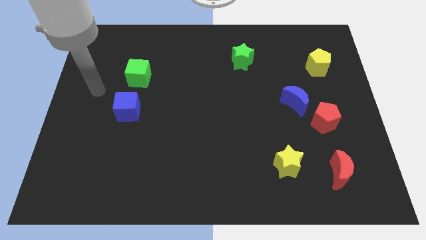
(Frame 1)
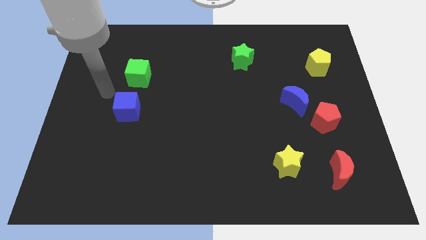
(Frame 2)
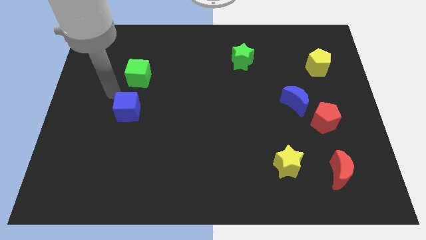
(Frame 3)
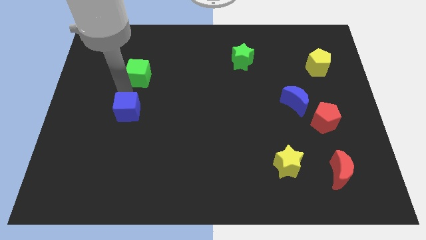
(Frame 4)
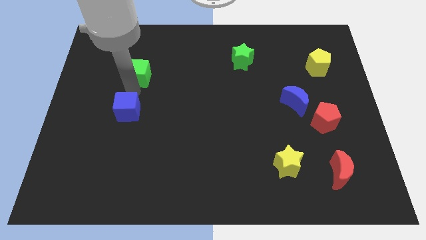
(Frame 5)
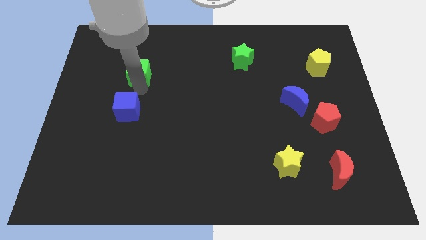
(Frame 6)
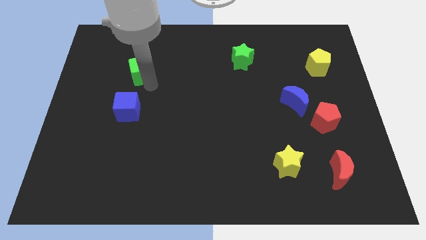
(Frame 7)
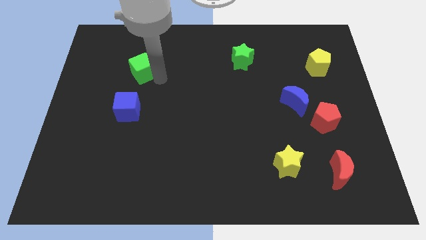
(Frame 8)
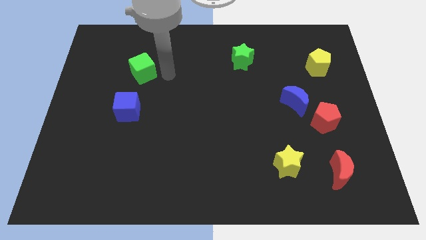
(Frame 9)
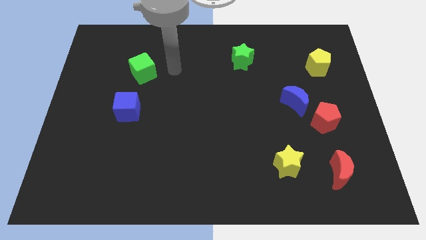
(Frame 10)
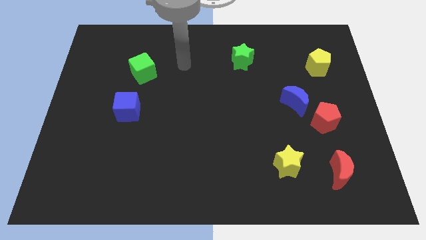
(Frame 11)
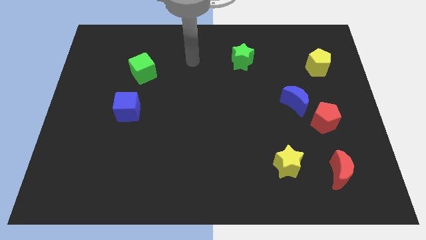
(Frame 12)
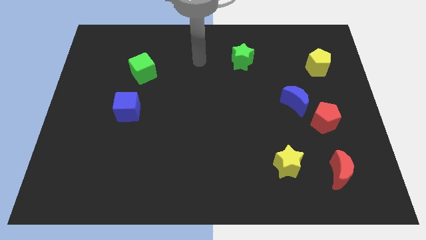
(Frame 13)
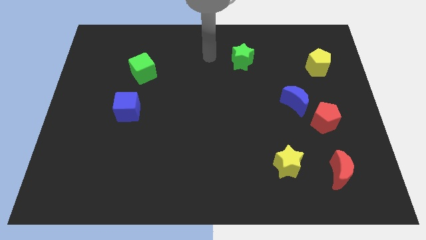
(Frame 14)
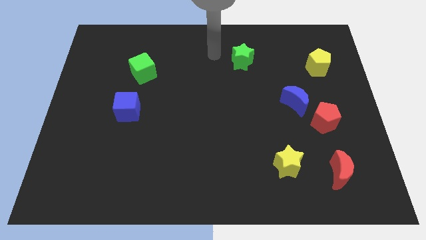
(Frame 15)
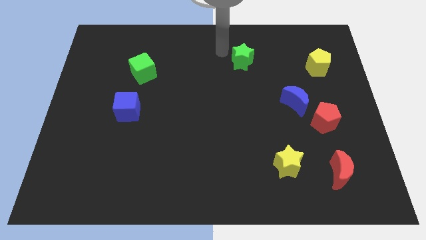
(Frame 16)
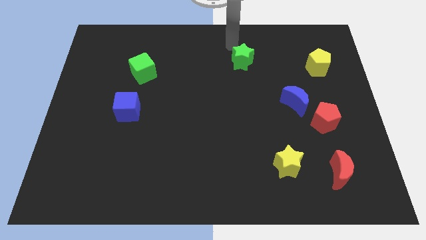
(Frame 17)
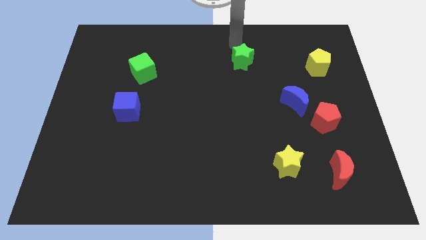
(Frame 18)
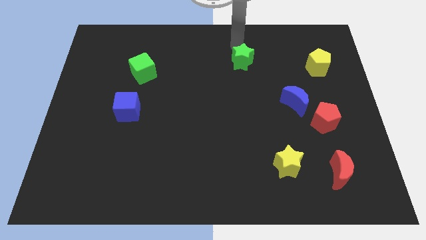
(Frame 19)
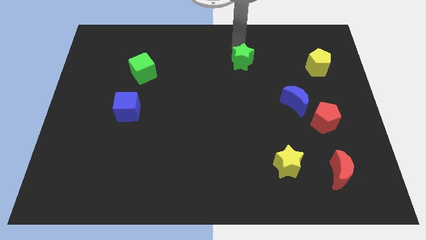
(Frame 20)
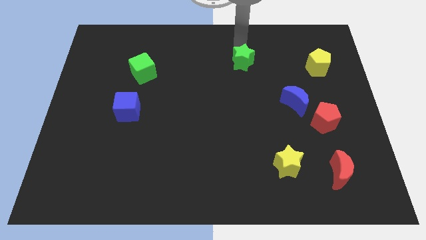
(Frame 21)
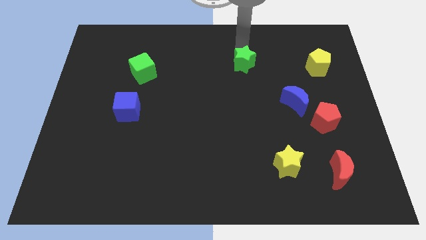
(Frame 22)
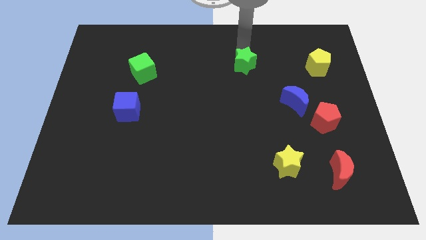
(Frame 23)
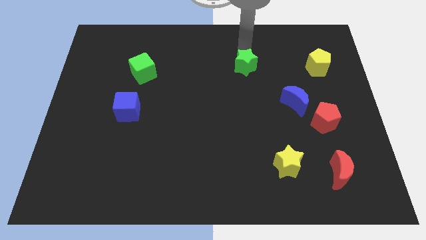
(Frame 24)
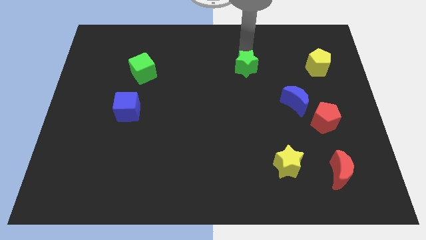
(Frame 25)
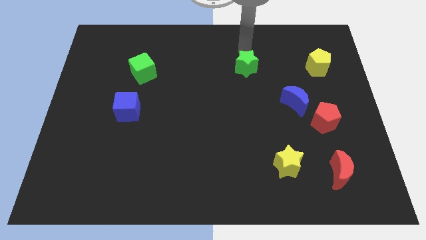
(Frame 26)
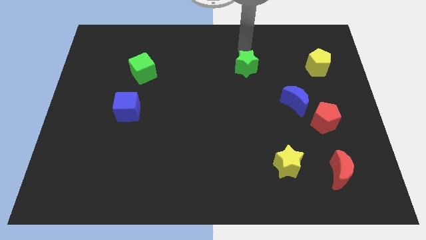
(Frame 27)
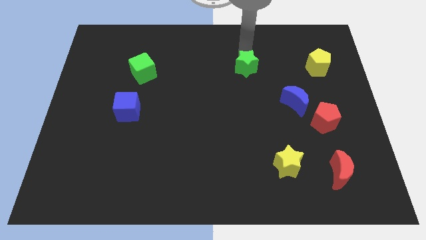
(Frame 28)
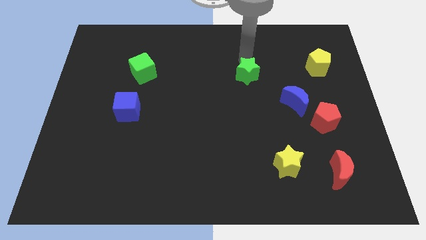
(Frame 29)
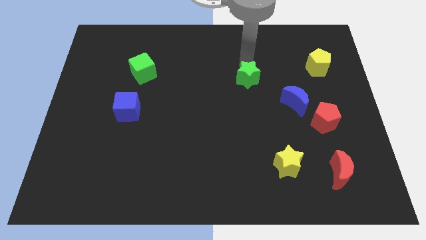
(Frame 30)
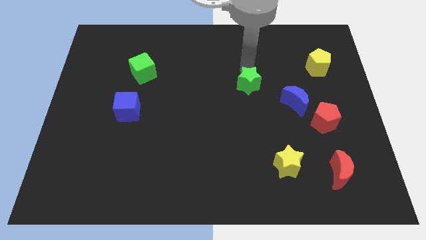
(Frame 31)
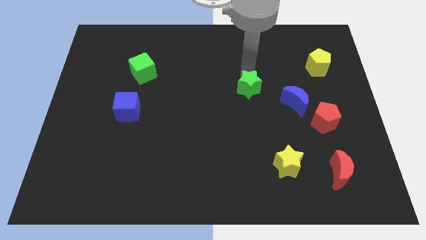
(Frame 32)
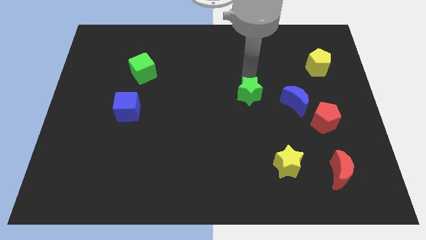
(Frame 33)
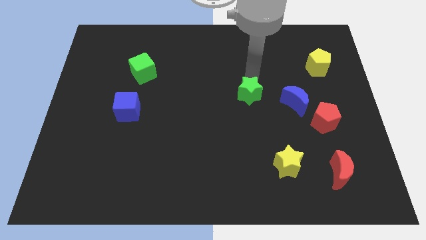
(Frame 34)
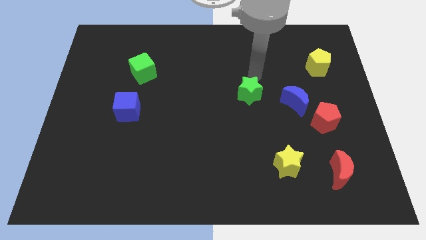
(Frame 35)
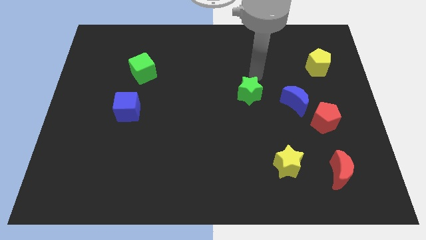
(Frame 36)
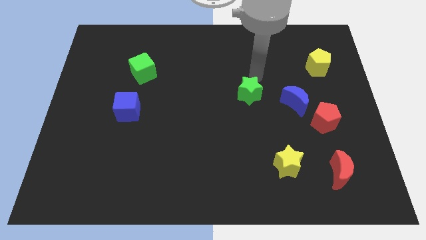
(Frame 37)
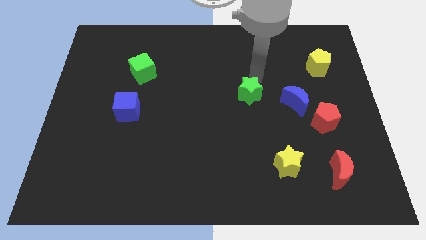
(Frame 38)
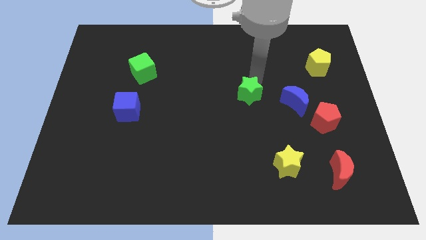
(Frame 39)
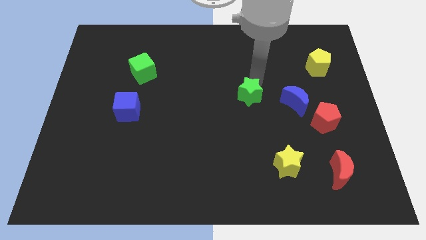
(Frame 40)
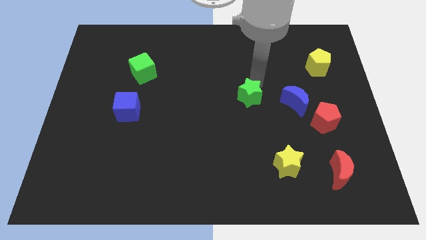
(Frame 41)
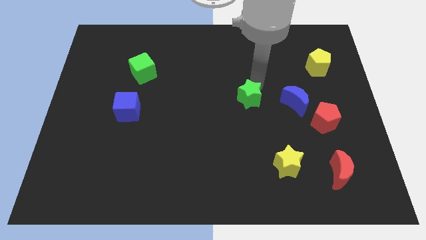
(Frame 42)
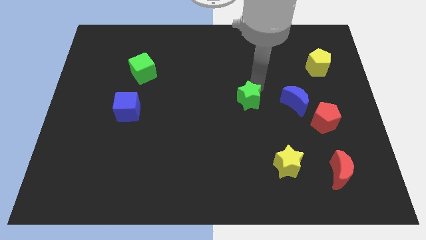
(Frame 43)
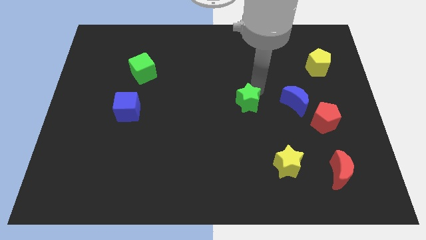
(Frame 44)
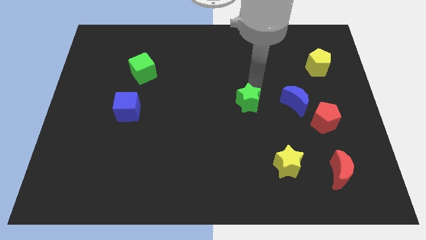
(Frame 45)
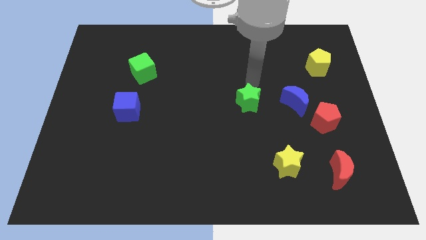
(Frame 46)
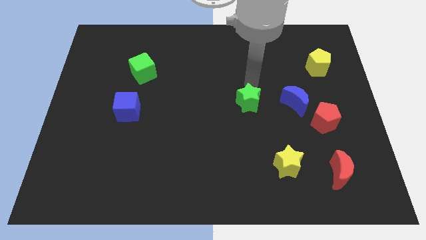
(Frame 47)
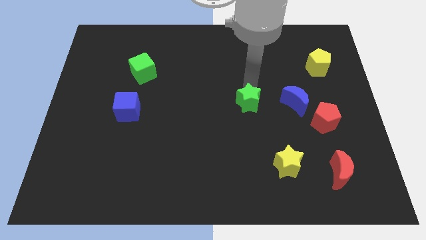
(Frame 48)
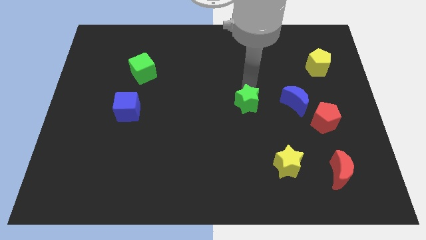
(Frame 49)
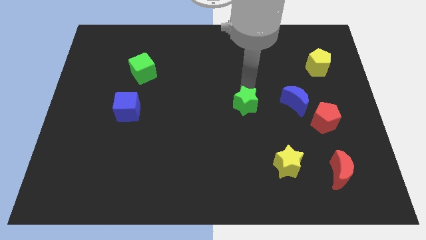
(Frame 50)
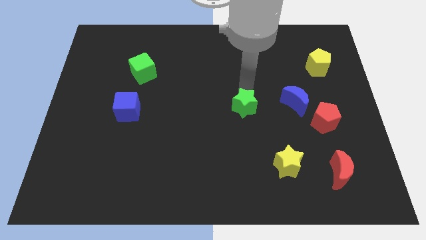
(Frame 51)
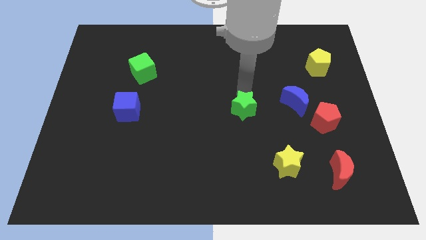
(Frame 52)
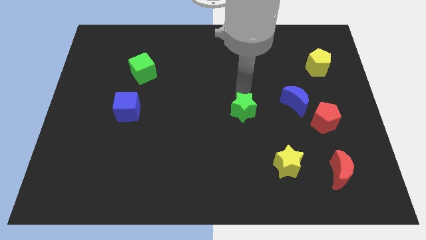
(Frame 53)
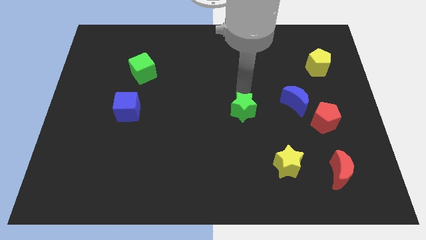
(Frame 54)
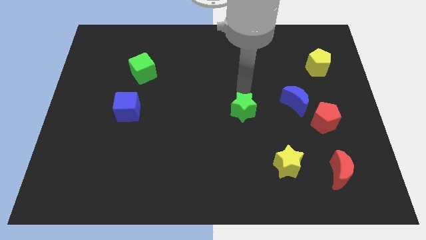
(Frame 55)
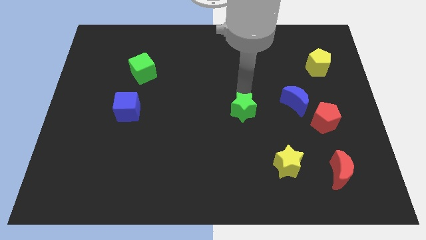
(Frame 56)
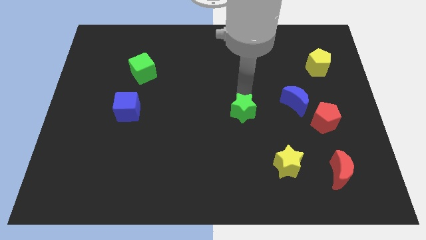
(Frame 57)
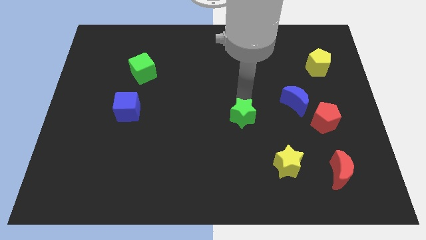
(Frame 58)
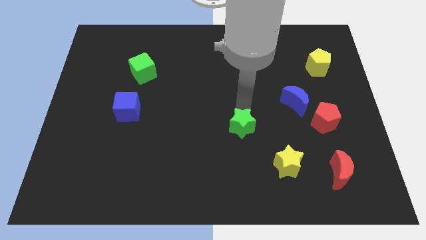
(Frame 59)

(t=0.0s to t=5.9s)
move the green star downwards

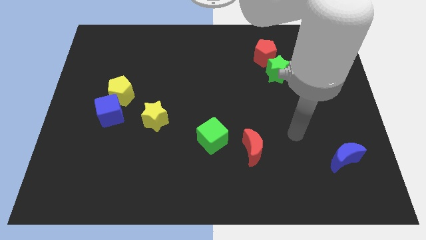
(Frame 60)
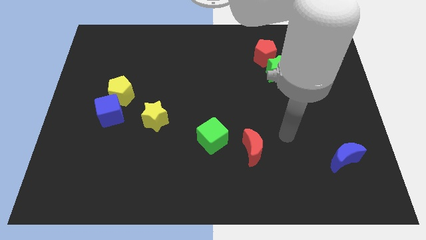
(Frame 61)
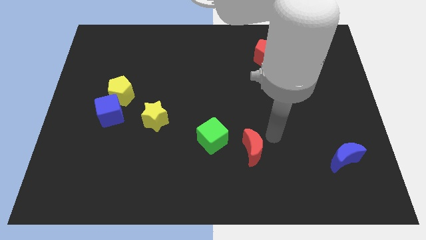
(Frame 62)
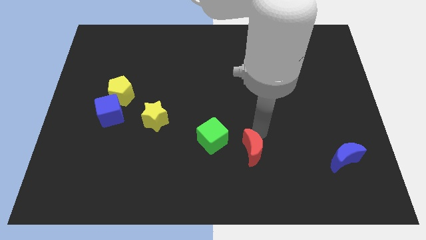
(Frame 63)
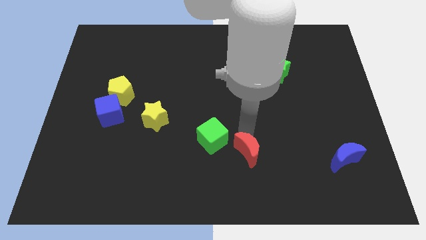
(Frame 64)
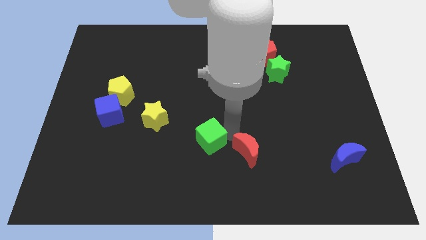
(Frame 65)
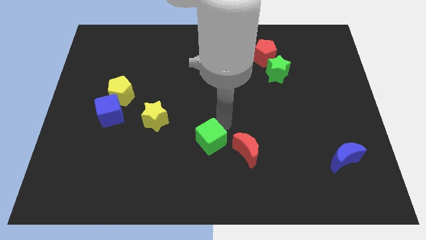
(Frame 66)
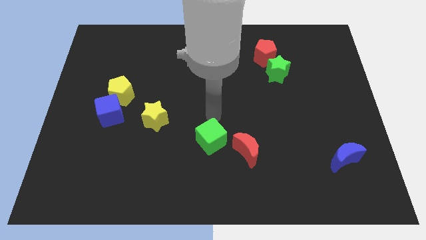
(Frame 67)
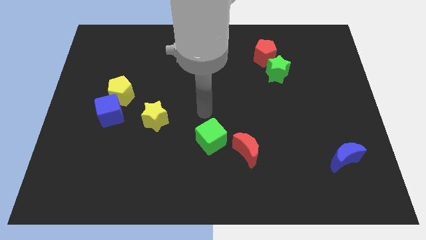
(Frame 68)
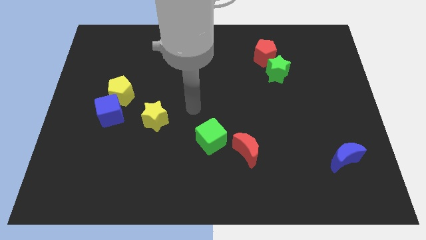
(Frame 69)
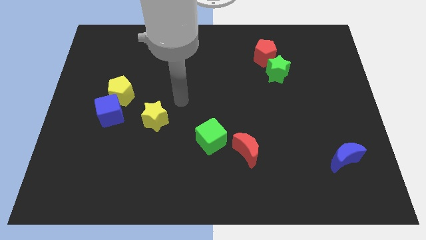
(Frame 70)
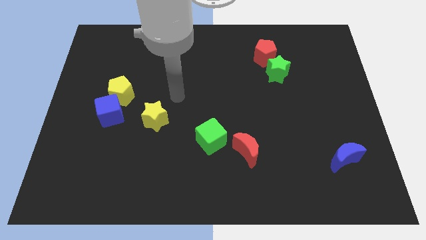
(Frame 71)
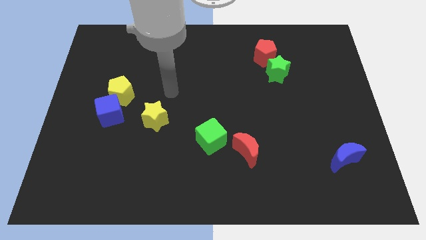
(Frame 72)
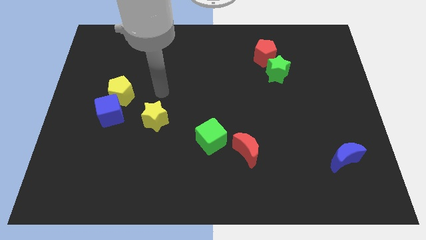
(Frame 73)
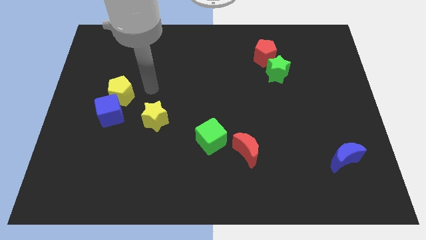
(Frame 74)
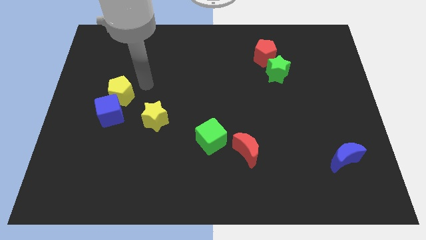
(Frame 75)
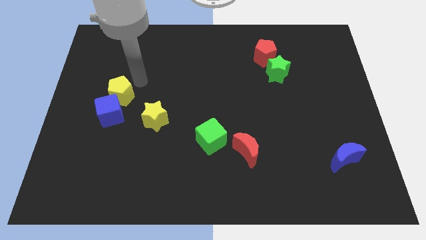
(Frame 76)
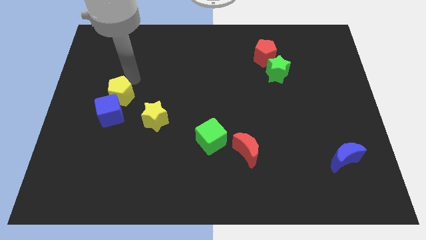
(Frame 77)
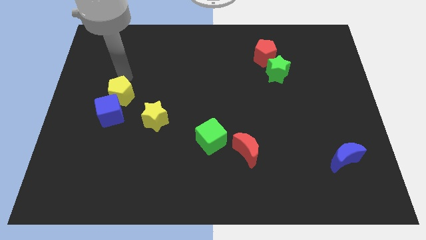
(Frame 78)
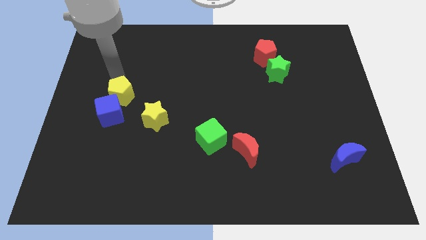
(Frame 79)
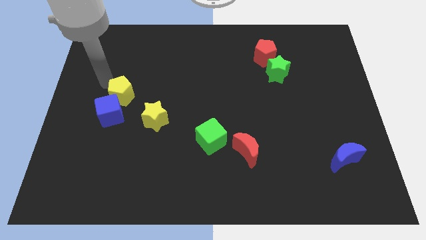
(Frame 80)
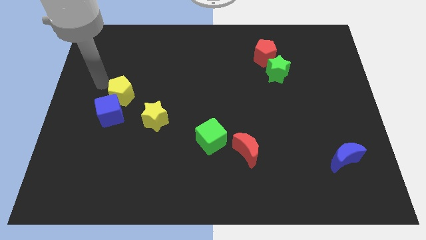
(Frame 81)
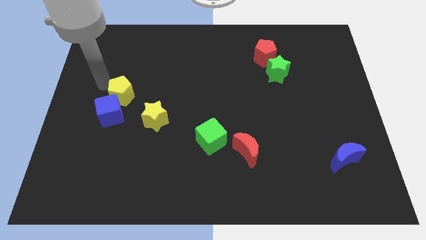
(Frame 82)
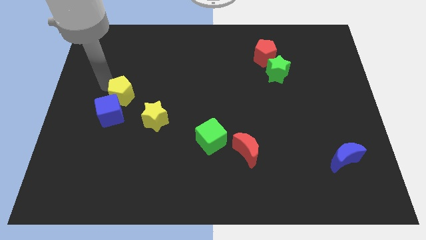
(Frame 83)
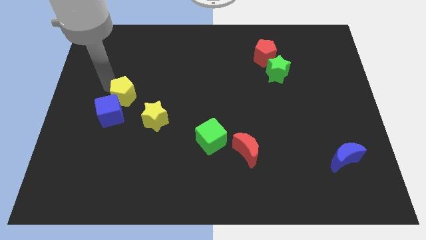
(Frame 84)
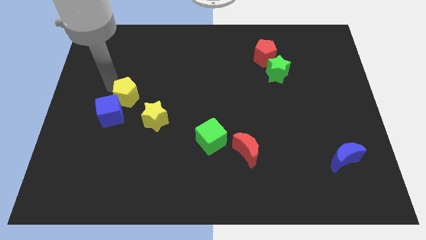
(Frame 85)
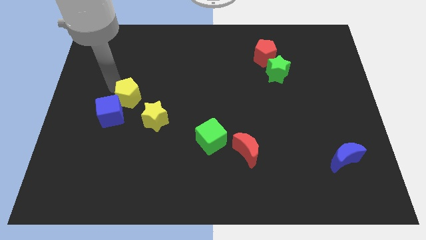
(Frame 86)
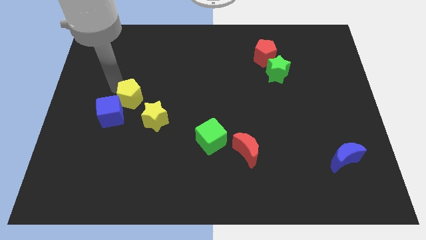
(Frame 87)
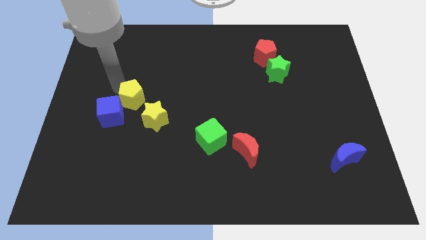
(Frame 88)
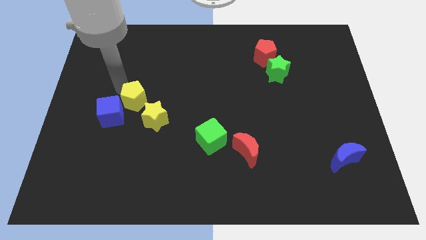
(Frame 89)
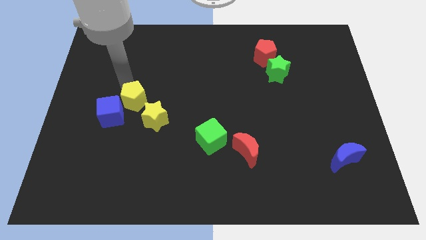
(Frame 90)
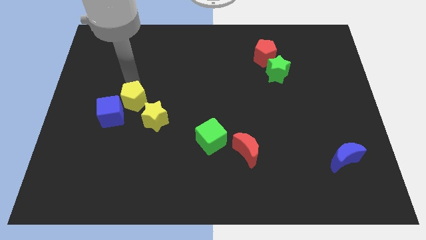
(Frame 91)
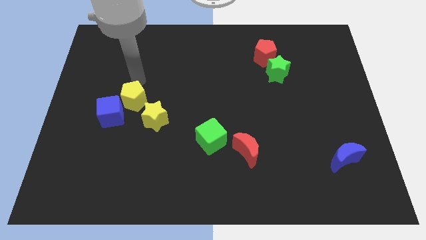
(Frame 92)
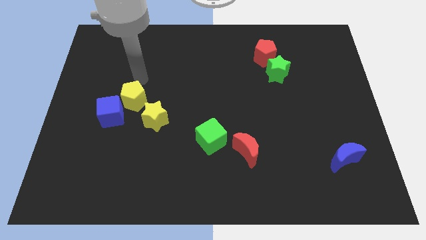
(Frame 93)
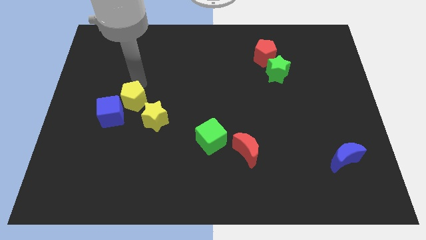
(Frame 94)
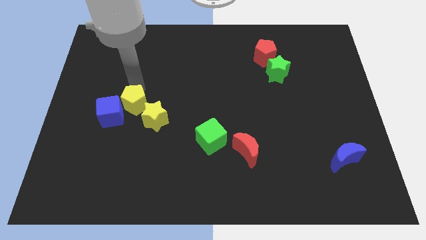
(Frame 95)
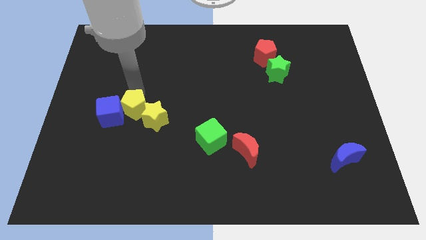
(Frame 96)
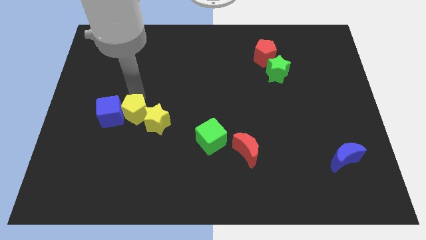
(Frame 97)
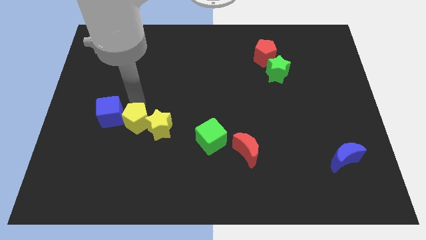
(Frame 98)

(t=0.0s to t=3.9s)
slightly push the yellow pentagon downwards
